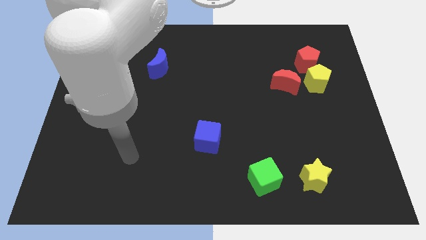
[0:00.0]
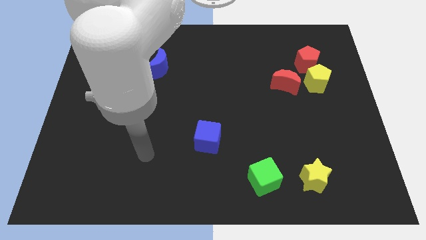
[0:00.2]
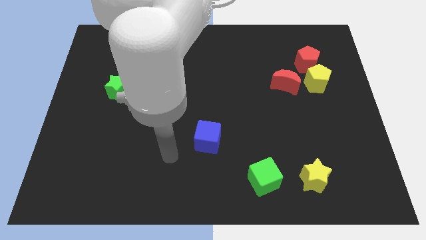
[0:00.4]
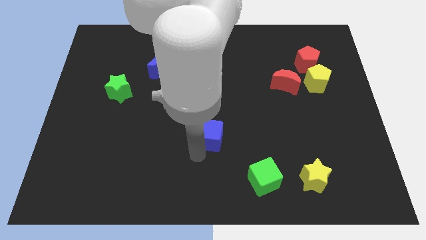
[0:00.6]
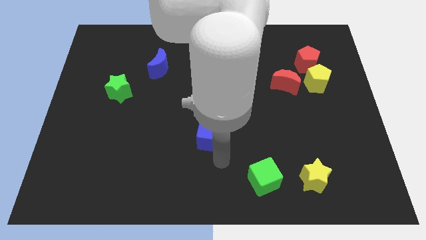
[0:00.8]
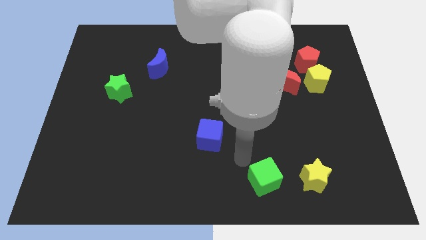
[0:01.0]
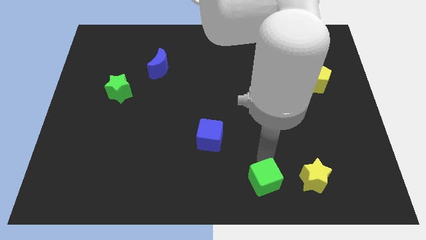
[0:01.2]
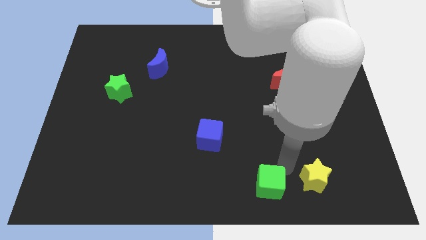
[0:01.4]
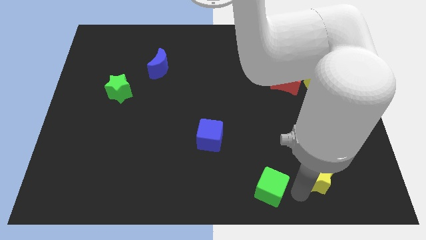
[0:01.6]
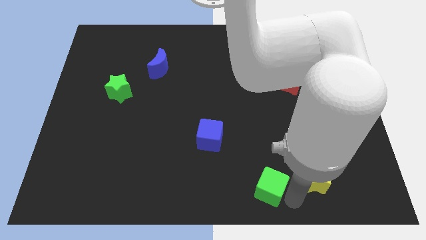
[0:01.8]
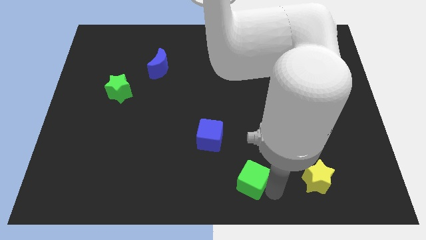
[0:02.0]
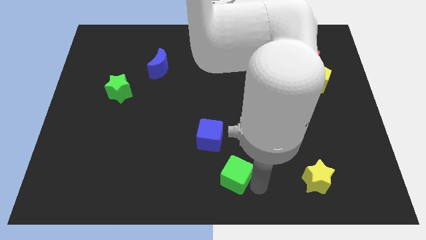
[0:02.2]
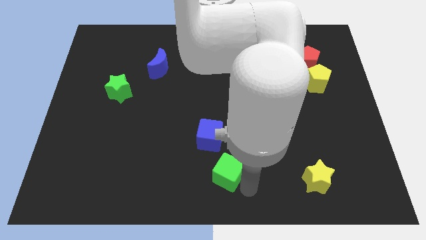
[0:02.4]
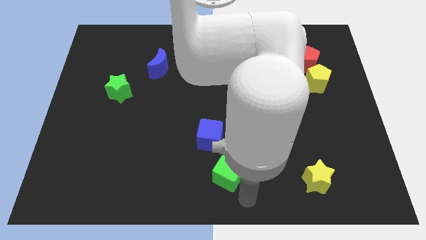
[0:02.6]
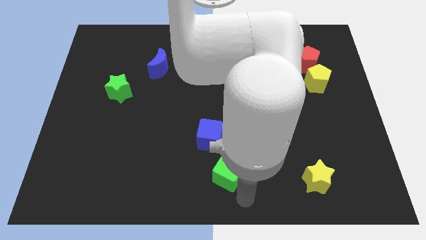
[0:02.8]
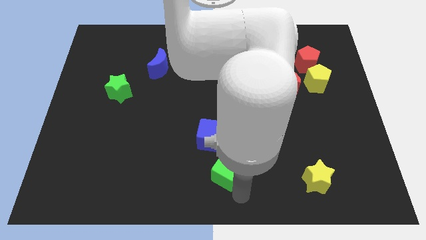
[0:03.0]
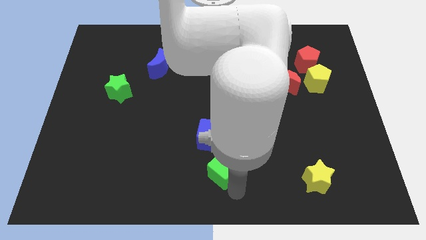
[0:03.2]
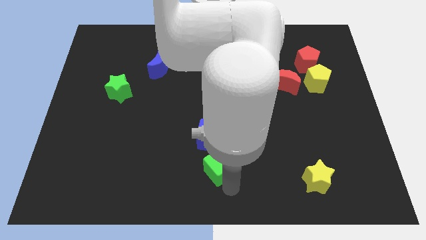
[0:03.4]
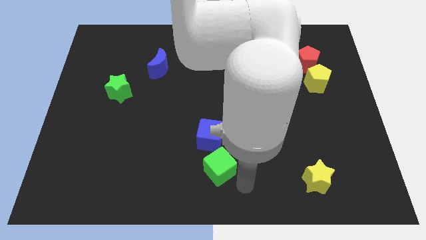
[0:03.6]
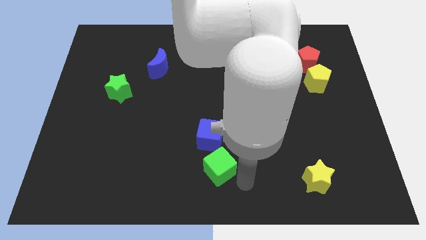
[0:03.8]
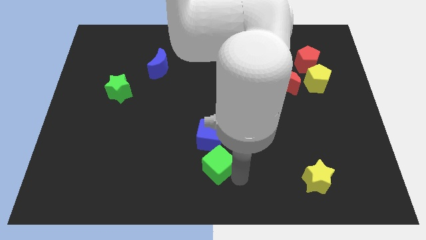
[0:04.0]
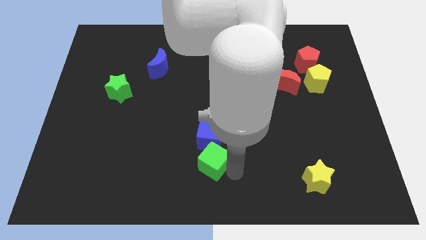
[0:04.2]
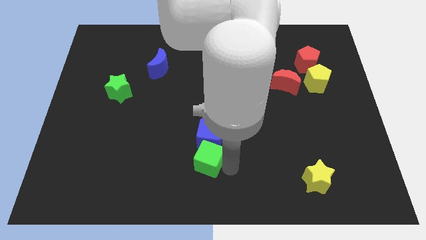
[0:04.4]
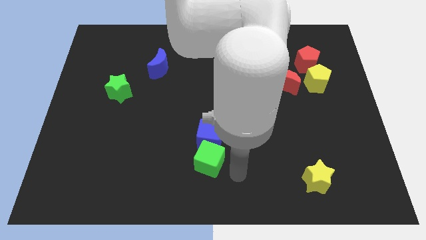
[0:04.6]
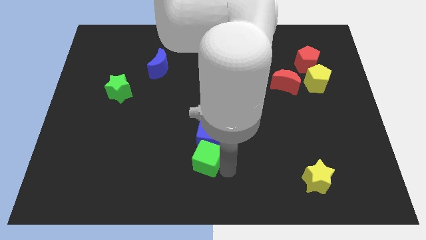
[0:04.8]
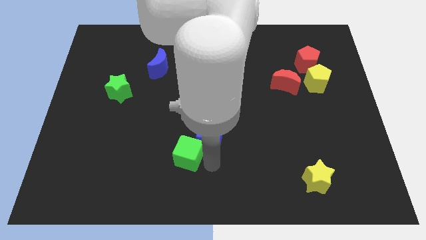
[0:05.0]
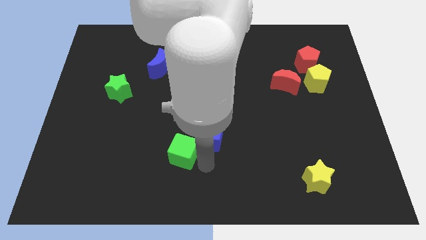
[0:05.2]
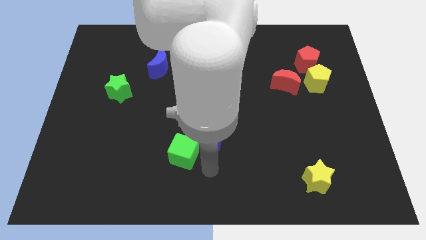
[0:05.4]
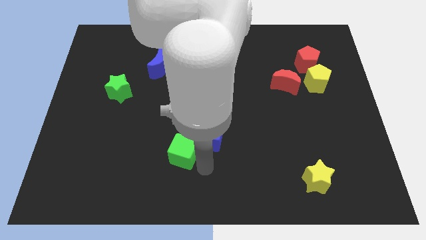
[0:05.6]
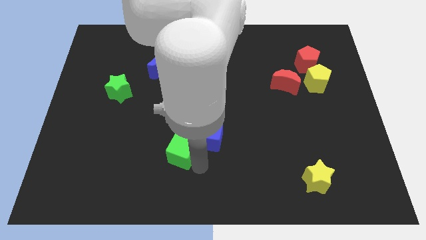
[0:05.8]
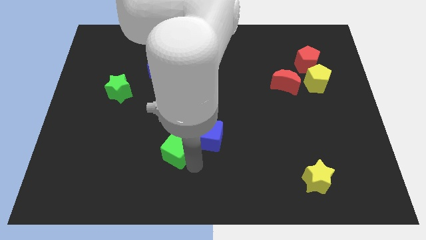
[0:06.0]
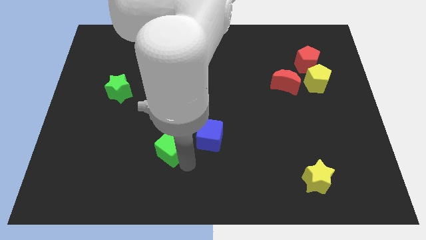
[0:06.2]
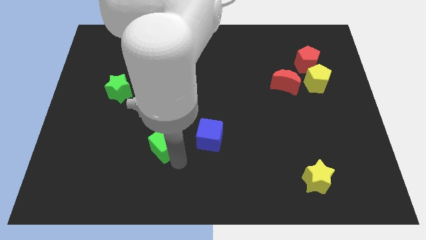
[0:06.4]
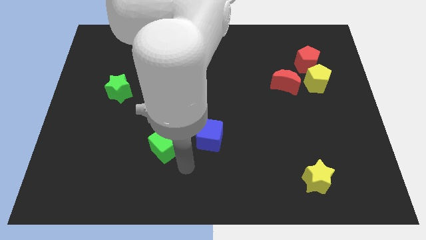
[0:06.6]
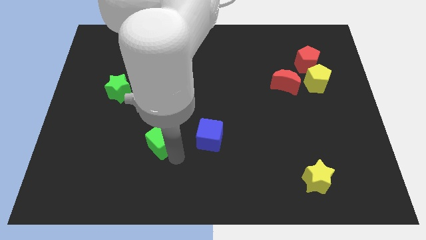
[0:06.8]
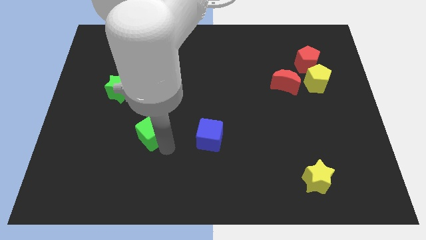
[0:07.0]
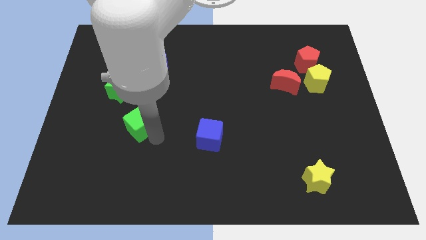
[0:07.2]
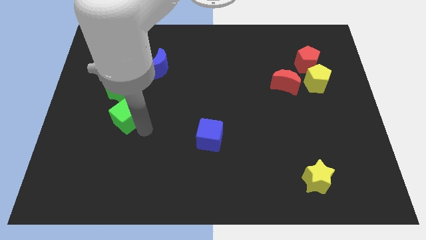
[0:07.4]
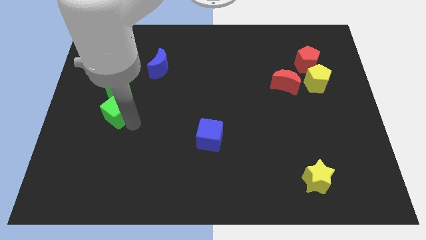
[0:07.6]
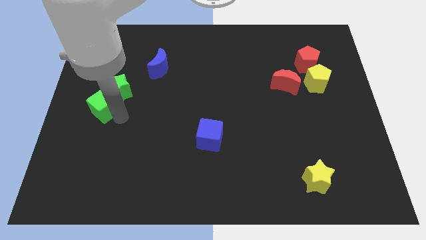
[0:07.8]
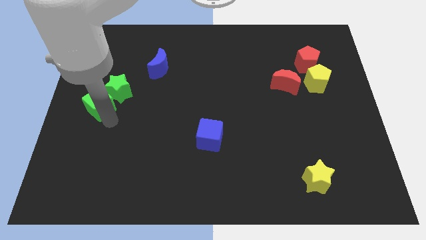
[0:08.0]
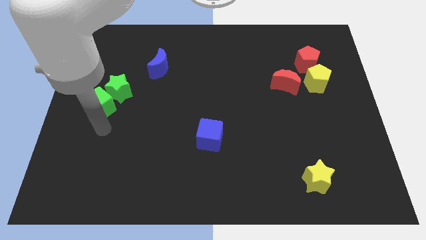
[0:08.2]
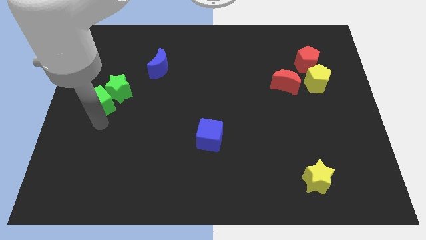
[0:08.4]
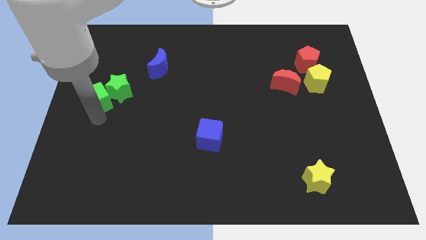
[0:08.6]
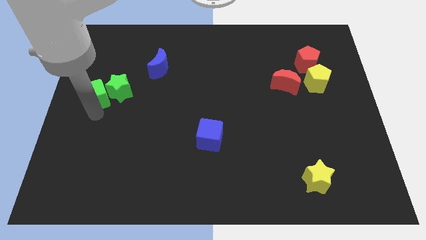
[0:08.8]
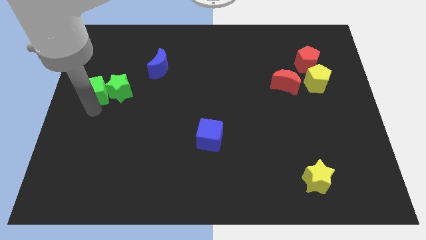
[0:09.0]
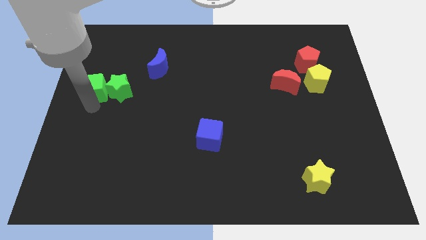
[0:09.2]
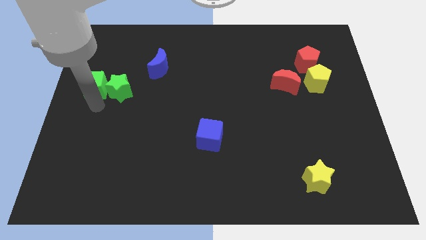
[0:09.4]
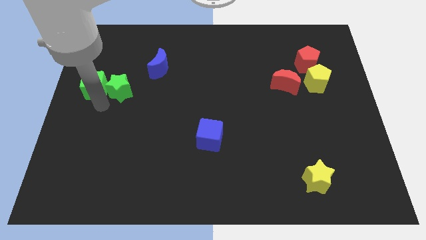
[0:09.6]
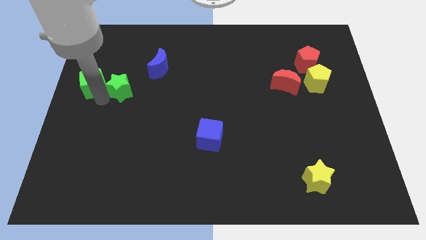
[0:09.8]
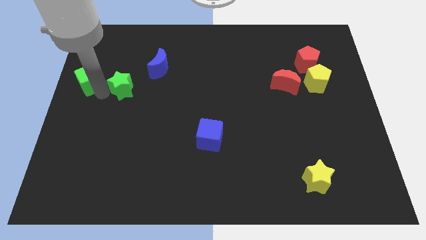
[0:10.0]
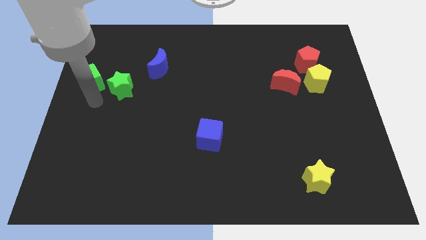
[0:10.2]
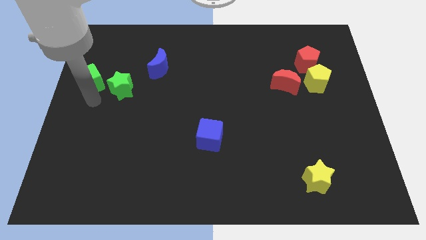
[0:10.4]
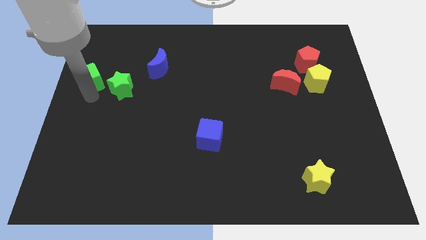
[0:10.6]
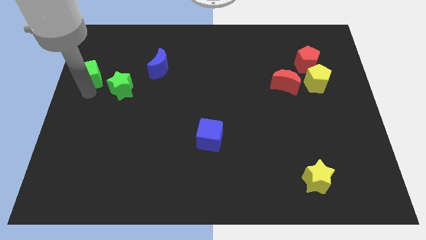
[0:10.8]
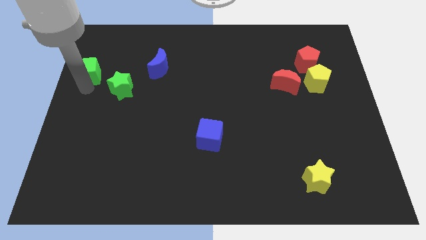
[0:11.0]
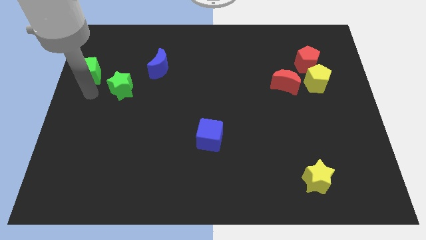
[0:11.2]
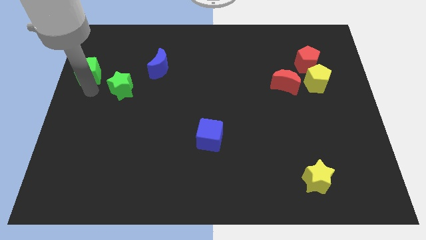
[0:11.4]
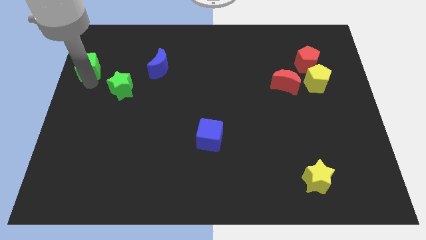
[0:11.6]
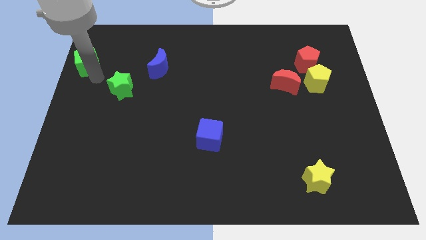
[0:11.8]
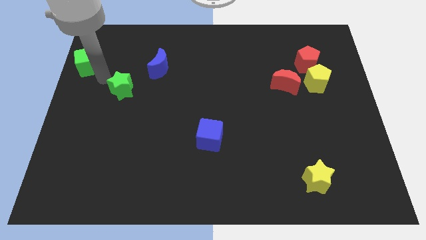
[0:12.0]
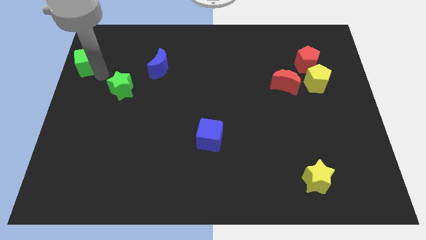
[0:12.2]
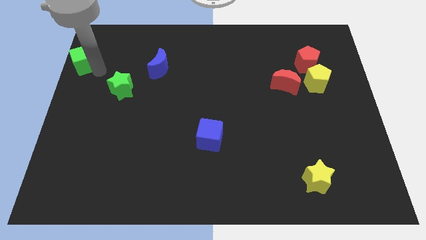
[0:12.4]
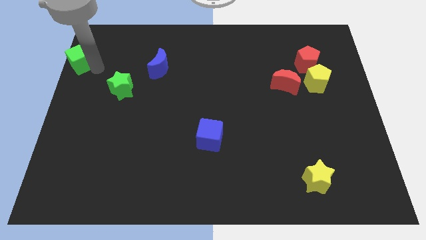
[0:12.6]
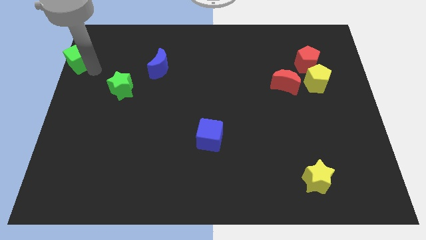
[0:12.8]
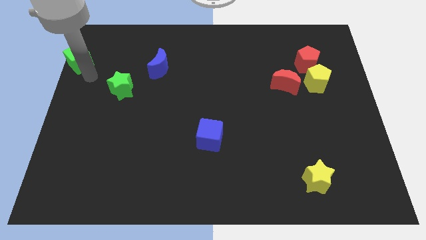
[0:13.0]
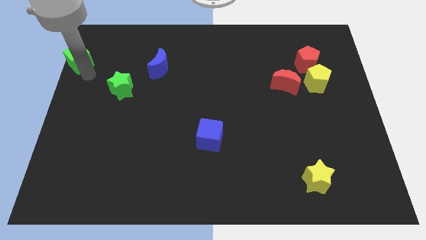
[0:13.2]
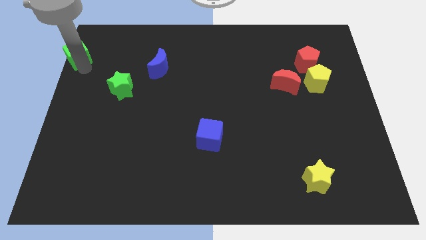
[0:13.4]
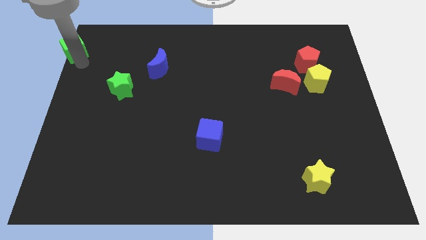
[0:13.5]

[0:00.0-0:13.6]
move the green cube to the top left of the board
